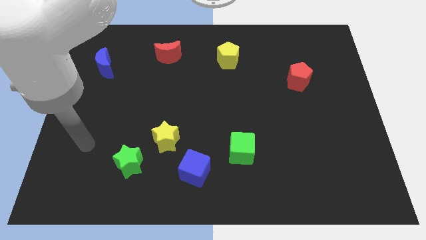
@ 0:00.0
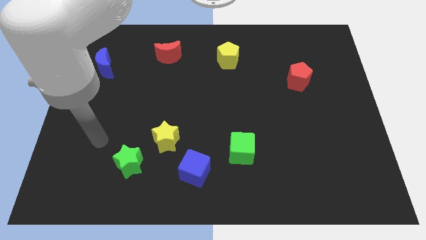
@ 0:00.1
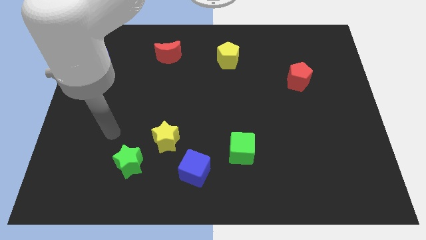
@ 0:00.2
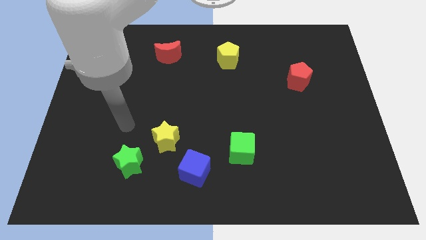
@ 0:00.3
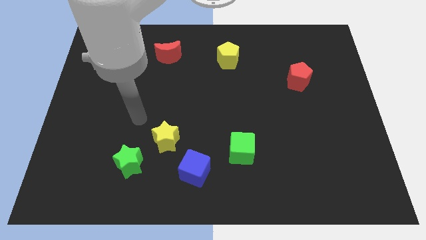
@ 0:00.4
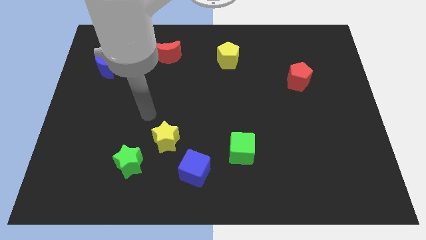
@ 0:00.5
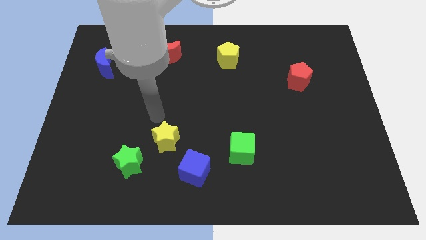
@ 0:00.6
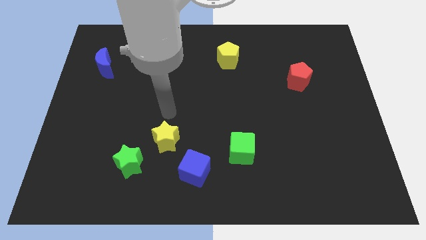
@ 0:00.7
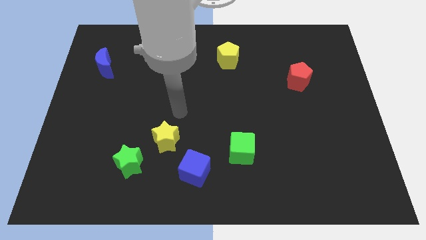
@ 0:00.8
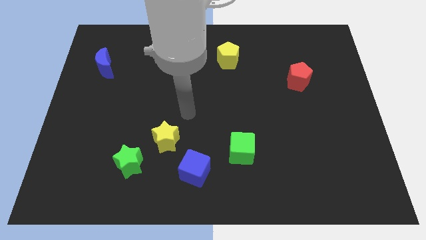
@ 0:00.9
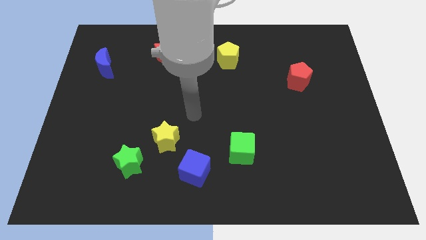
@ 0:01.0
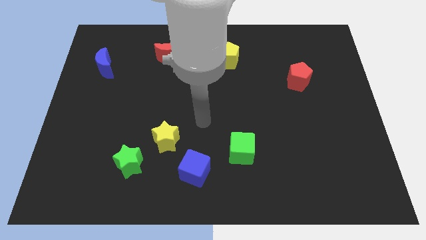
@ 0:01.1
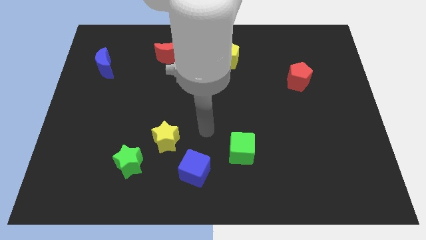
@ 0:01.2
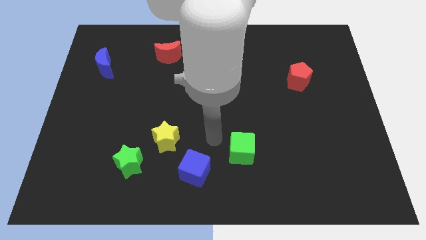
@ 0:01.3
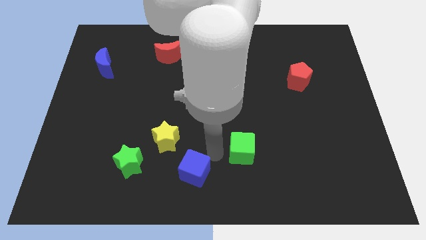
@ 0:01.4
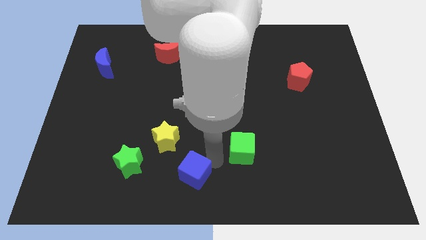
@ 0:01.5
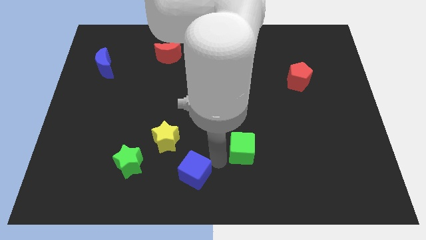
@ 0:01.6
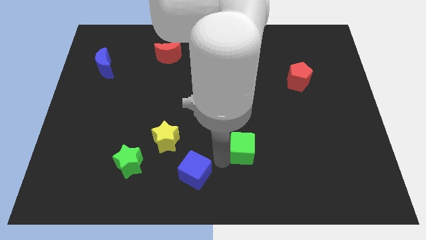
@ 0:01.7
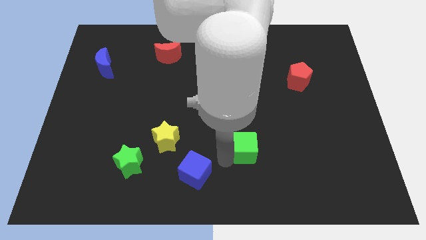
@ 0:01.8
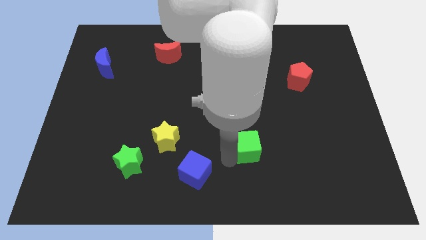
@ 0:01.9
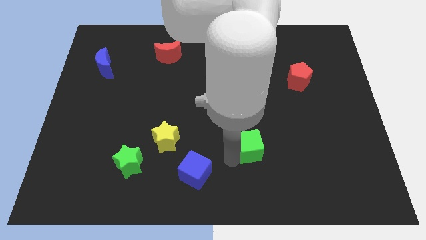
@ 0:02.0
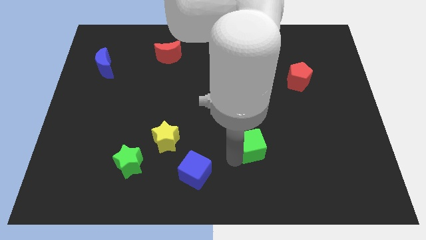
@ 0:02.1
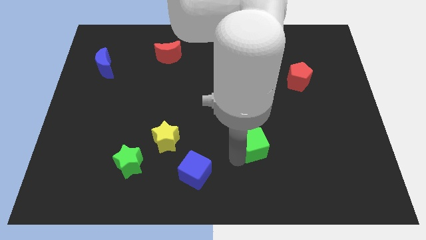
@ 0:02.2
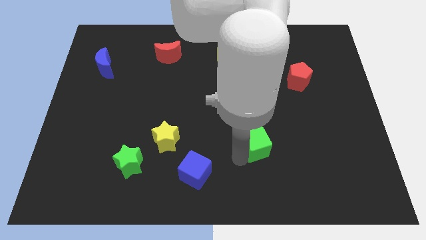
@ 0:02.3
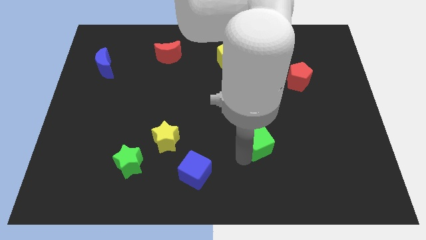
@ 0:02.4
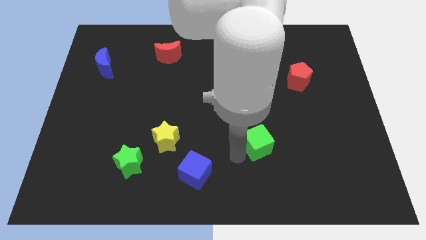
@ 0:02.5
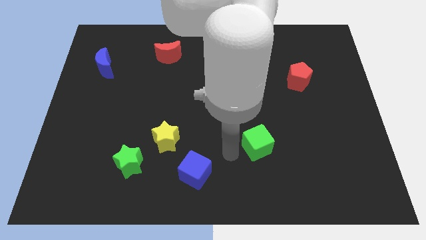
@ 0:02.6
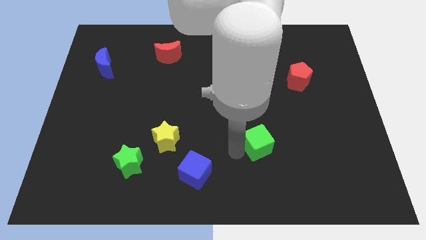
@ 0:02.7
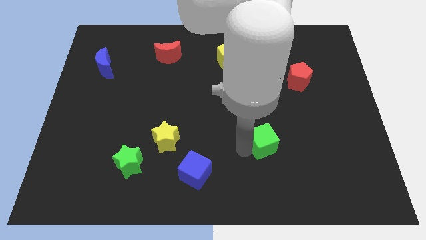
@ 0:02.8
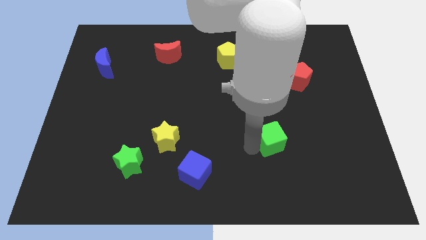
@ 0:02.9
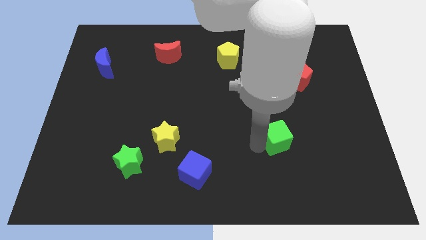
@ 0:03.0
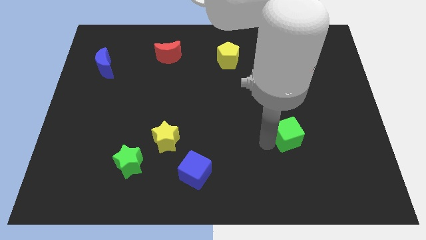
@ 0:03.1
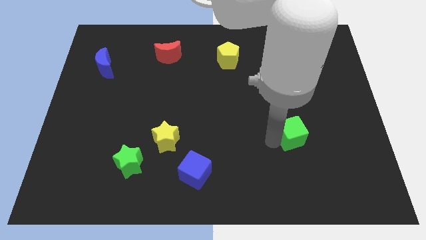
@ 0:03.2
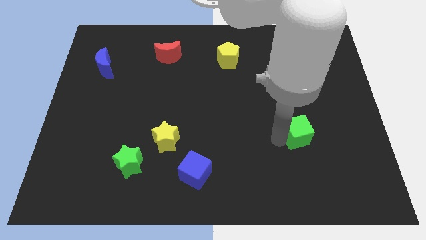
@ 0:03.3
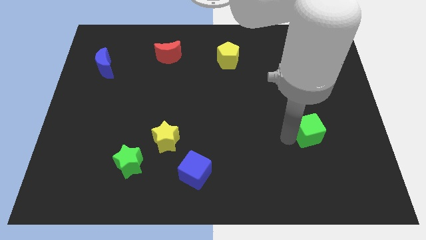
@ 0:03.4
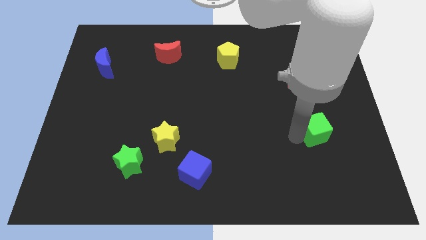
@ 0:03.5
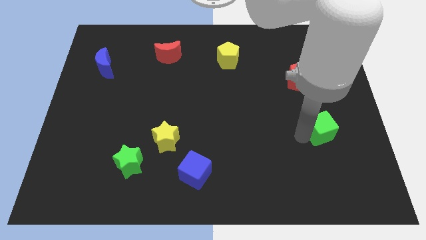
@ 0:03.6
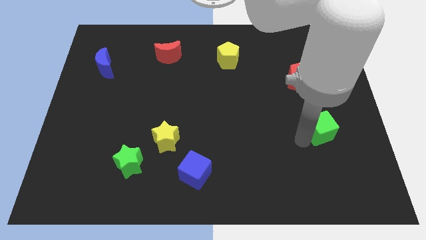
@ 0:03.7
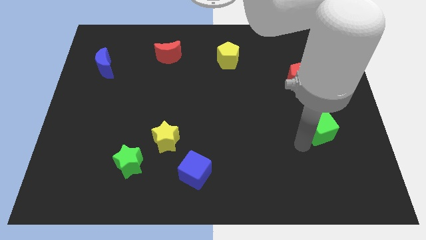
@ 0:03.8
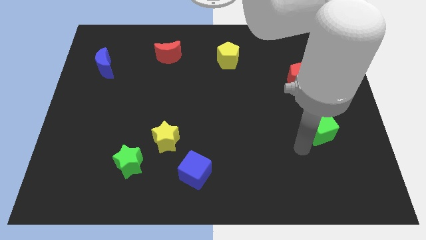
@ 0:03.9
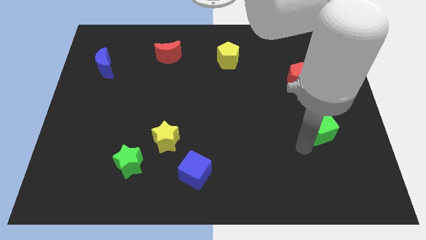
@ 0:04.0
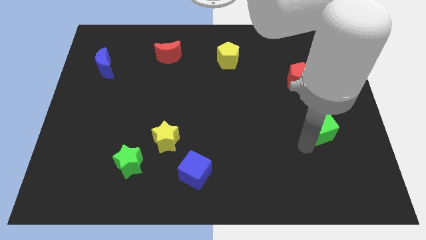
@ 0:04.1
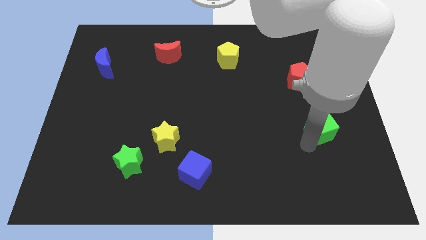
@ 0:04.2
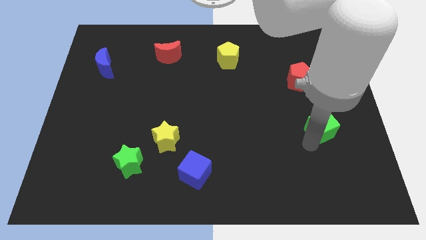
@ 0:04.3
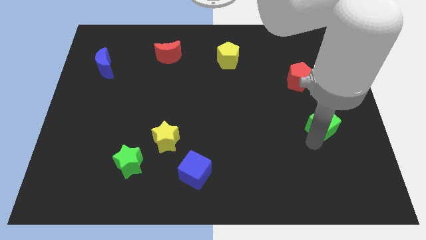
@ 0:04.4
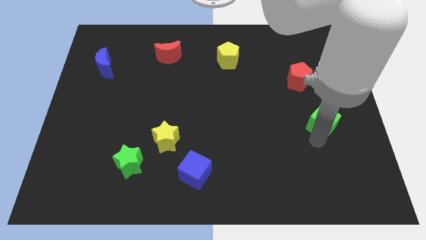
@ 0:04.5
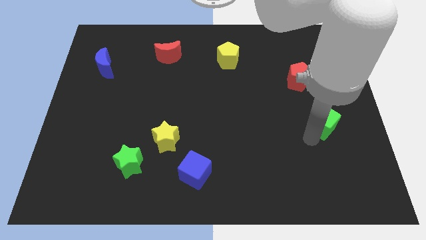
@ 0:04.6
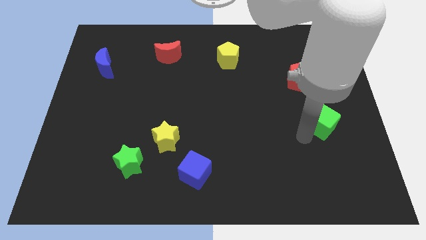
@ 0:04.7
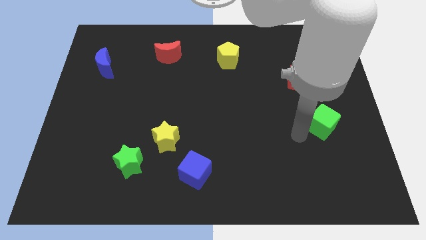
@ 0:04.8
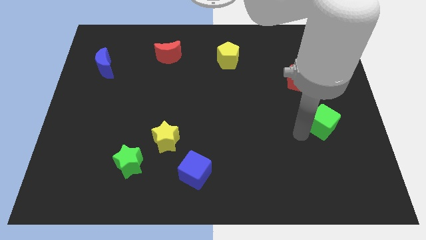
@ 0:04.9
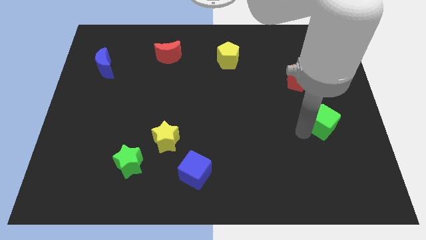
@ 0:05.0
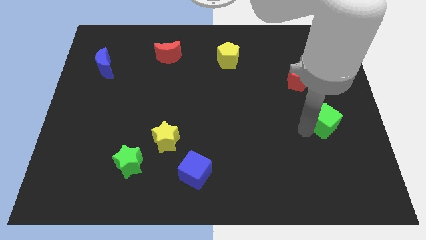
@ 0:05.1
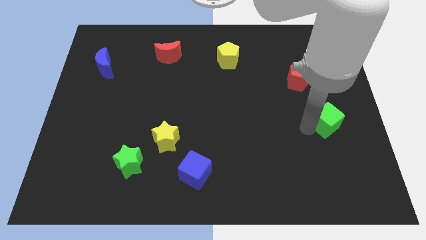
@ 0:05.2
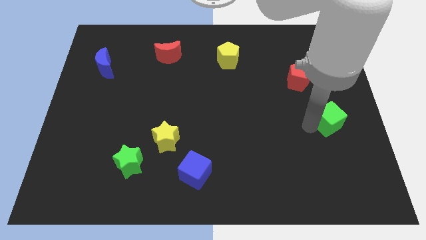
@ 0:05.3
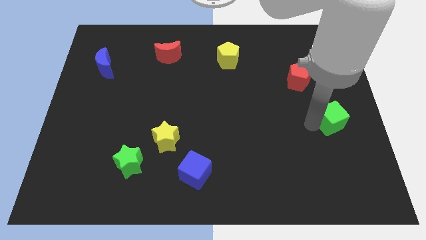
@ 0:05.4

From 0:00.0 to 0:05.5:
slide the green cube to the right side

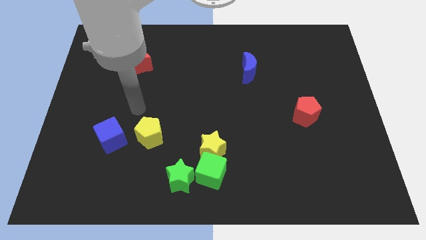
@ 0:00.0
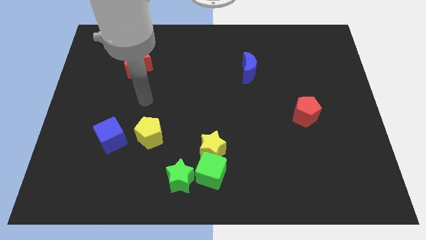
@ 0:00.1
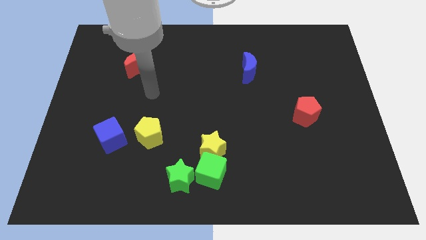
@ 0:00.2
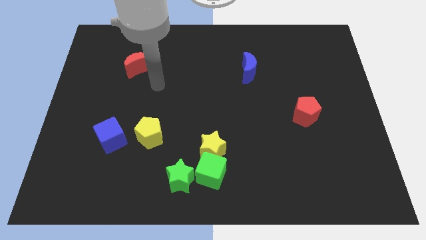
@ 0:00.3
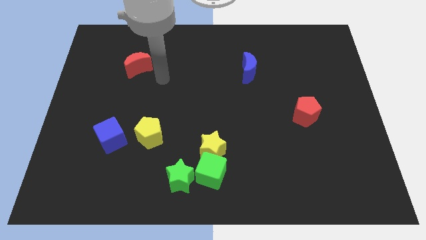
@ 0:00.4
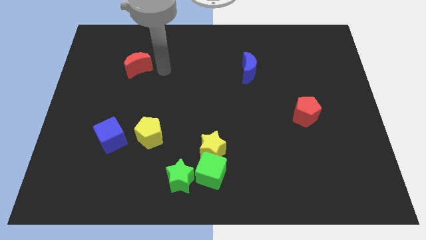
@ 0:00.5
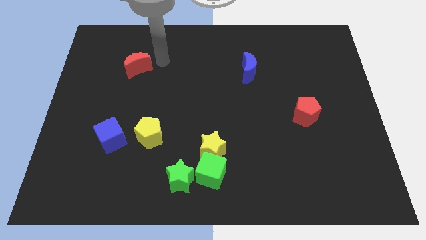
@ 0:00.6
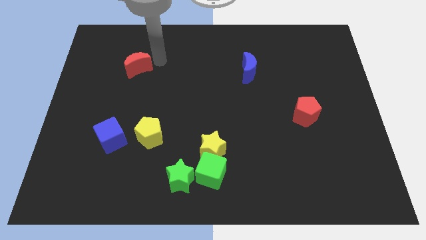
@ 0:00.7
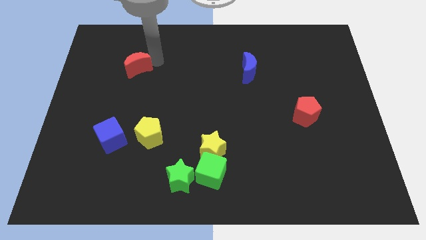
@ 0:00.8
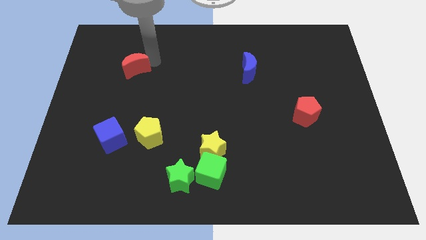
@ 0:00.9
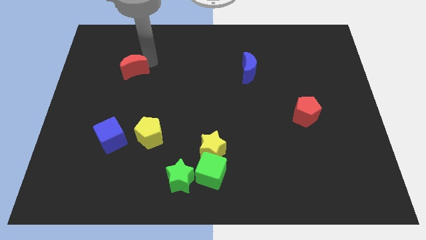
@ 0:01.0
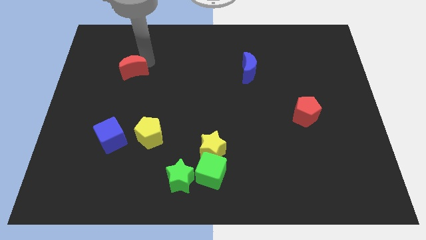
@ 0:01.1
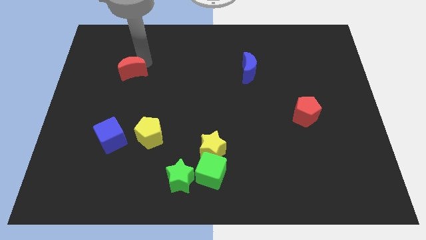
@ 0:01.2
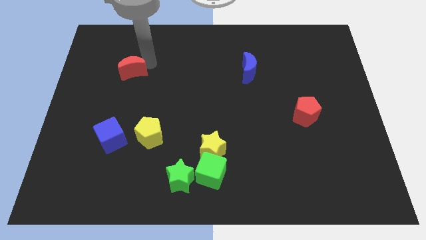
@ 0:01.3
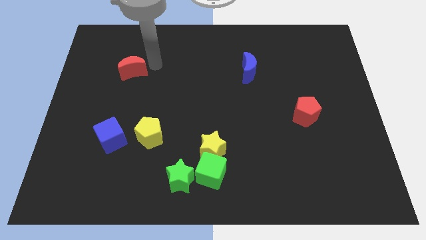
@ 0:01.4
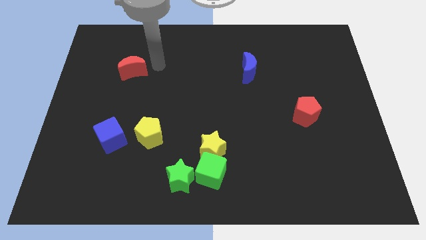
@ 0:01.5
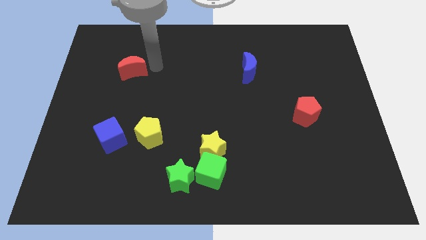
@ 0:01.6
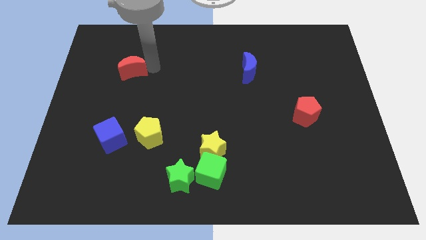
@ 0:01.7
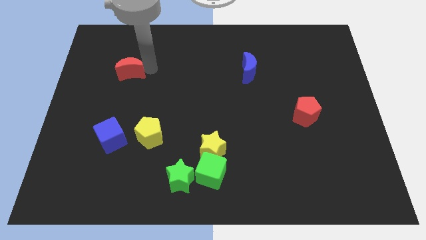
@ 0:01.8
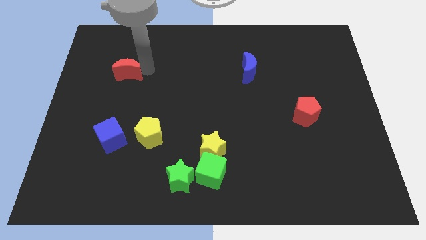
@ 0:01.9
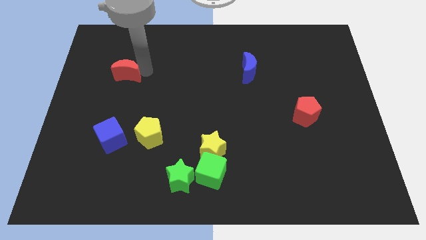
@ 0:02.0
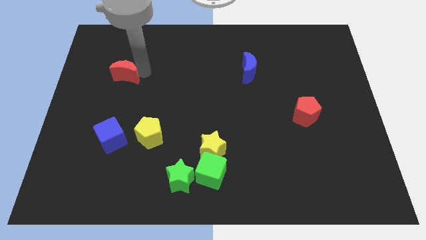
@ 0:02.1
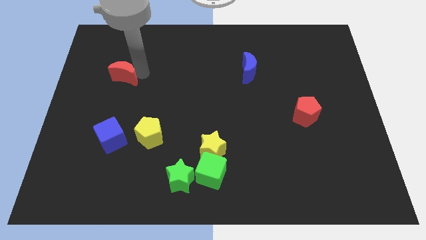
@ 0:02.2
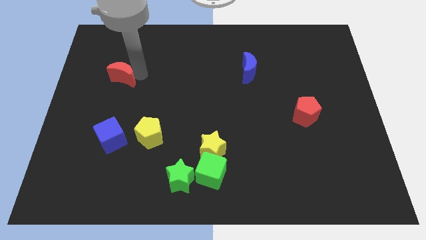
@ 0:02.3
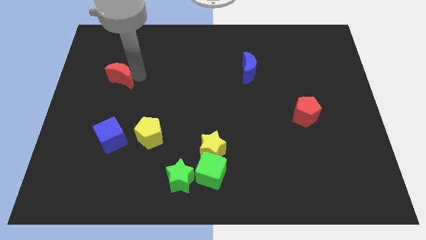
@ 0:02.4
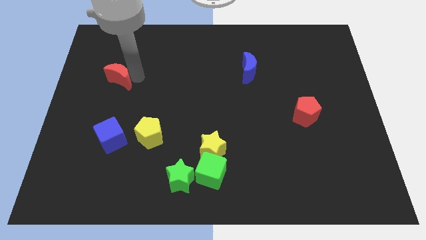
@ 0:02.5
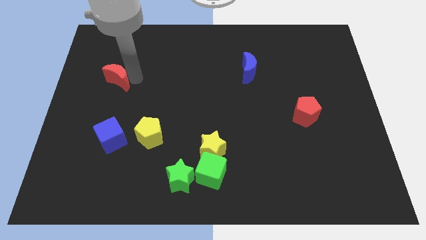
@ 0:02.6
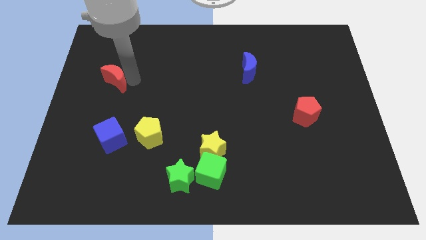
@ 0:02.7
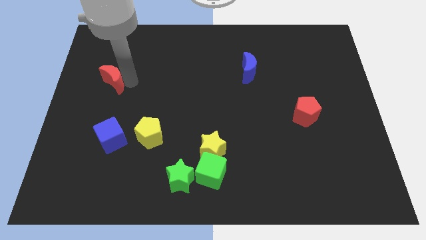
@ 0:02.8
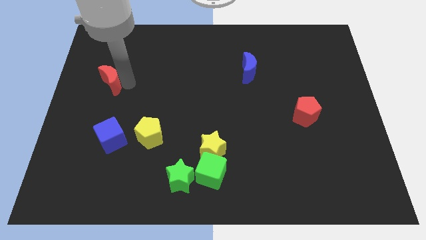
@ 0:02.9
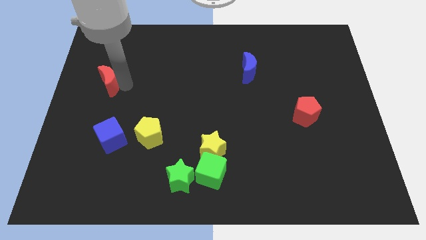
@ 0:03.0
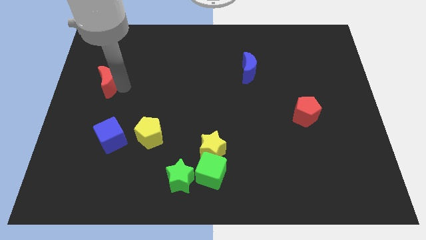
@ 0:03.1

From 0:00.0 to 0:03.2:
push the red moon to the center left
